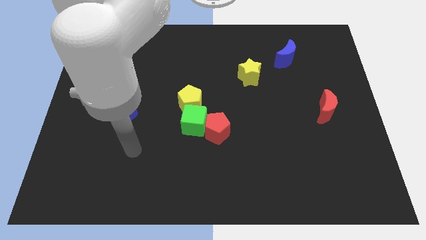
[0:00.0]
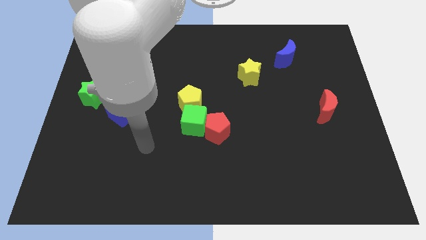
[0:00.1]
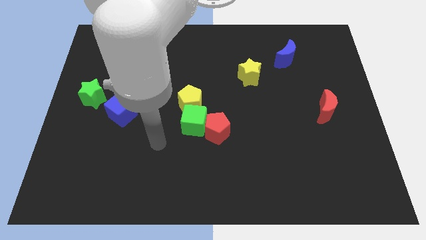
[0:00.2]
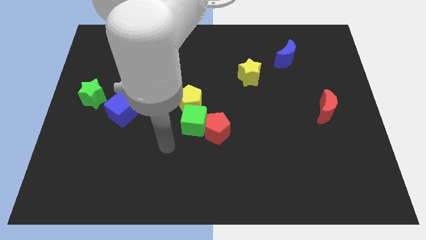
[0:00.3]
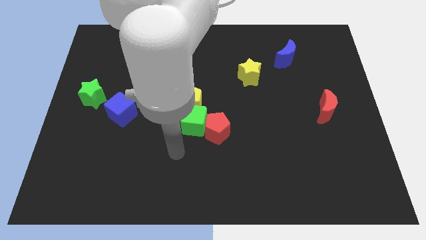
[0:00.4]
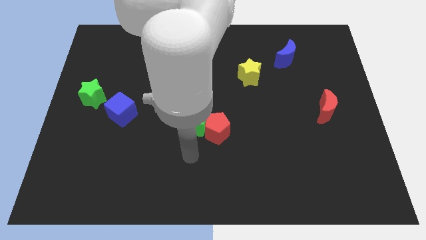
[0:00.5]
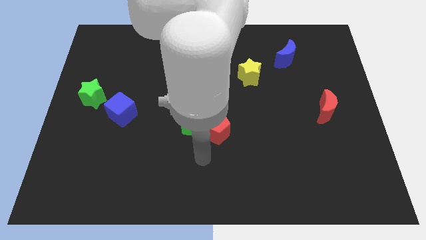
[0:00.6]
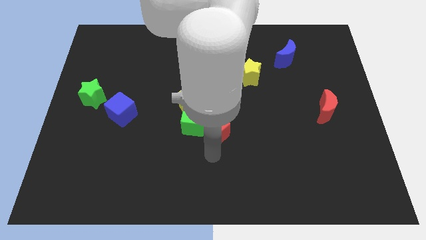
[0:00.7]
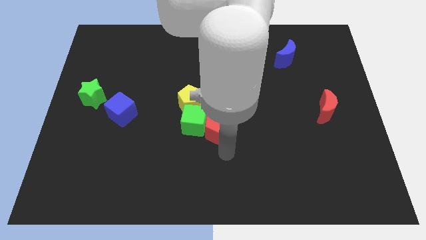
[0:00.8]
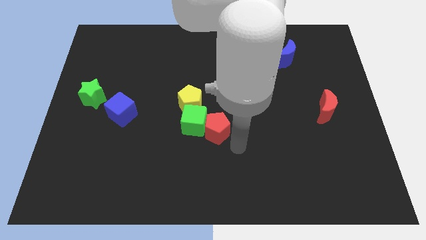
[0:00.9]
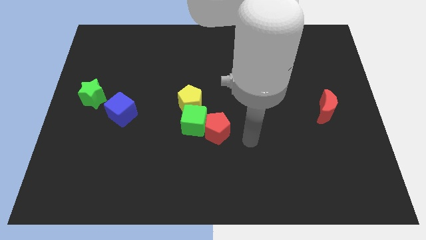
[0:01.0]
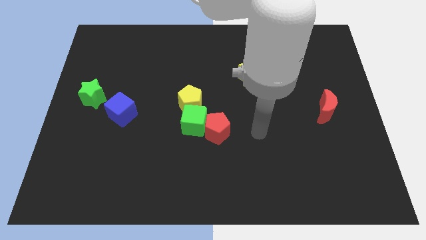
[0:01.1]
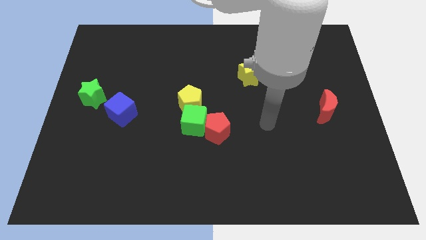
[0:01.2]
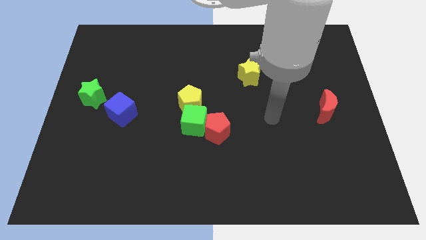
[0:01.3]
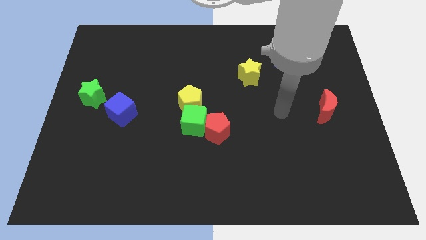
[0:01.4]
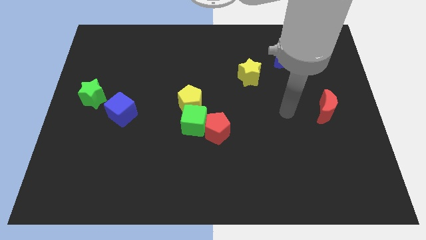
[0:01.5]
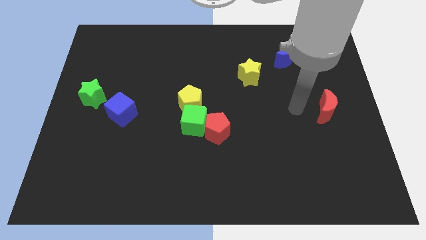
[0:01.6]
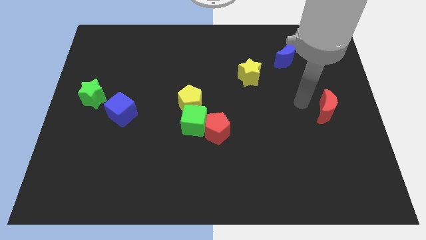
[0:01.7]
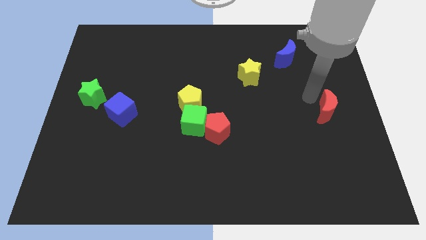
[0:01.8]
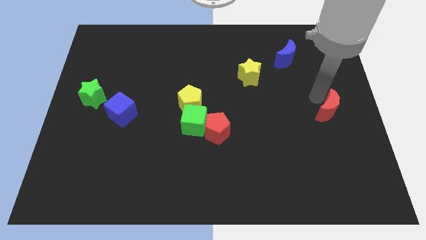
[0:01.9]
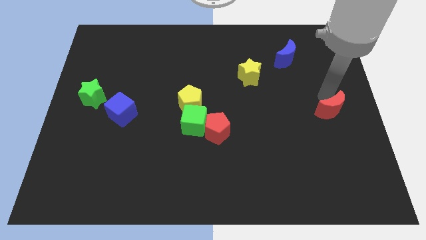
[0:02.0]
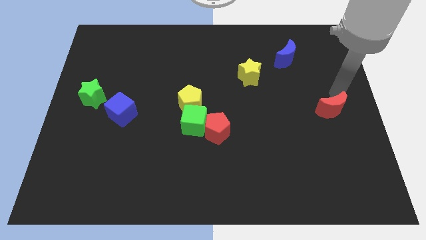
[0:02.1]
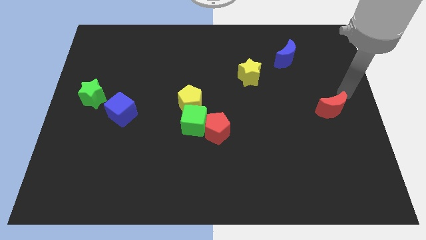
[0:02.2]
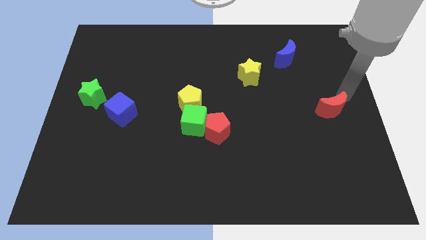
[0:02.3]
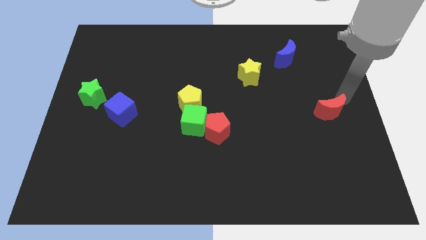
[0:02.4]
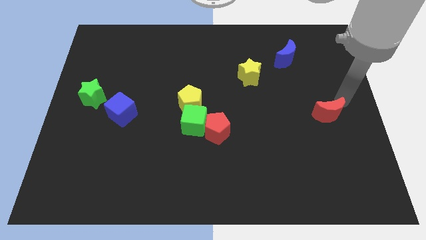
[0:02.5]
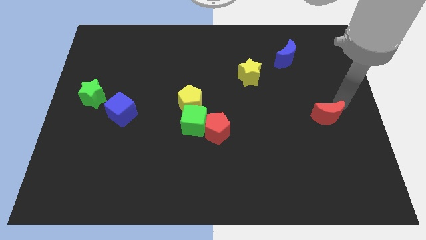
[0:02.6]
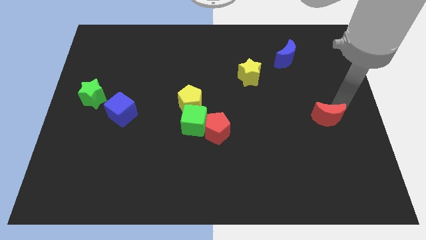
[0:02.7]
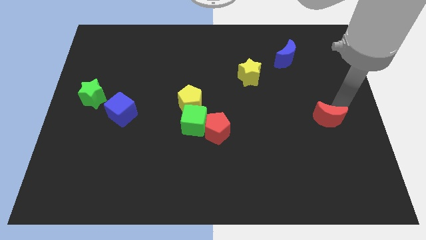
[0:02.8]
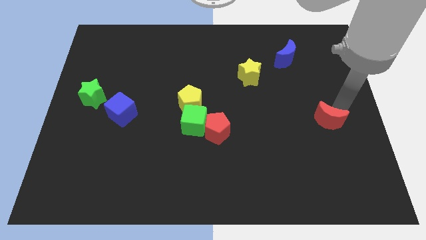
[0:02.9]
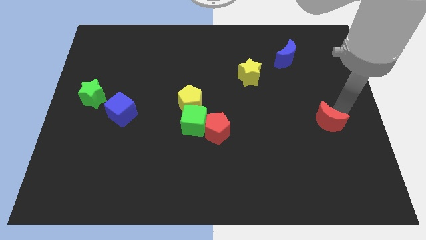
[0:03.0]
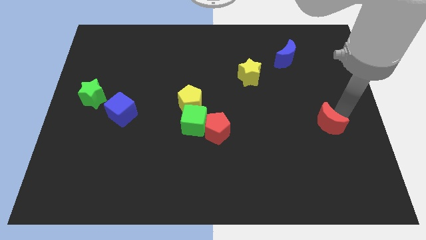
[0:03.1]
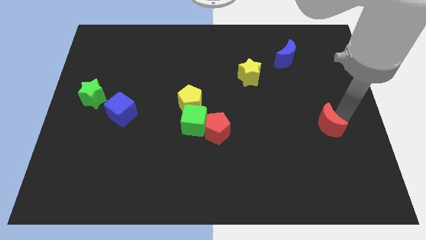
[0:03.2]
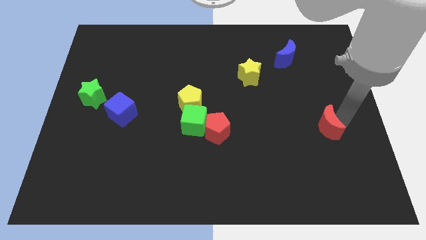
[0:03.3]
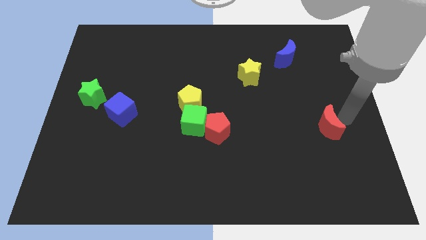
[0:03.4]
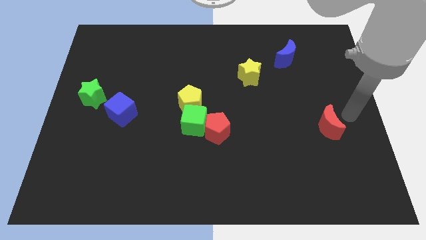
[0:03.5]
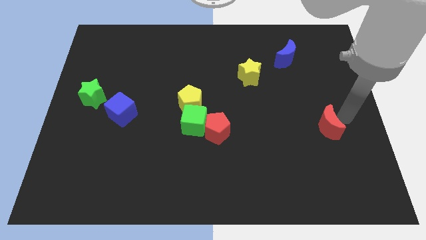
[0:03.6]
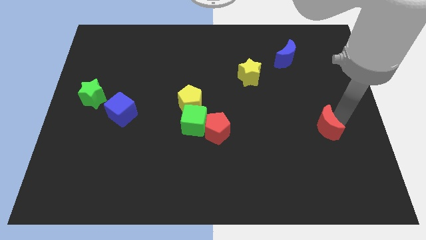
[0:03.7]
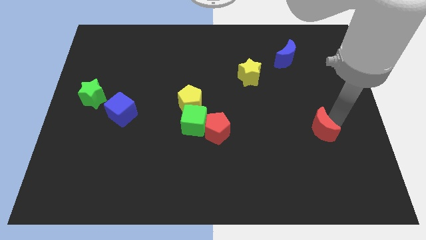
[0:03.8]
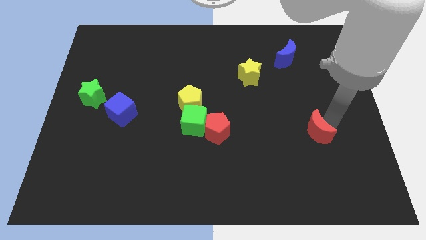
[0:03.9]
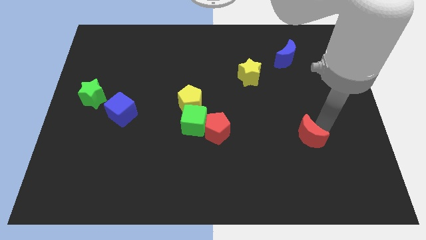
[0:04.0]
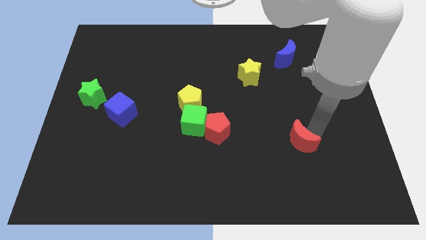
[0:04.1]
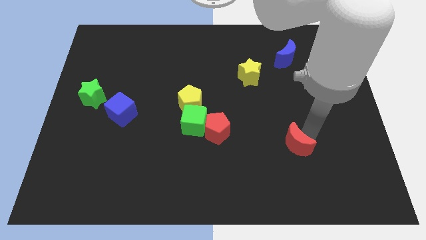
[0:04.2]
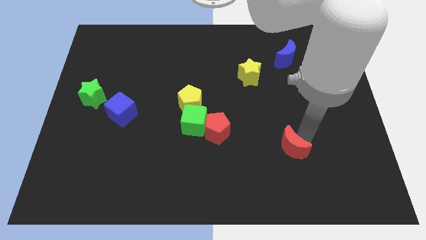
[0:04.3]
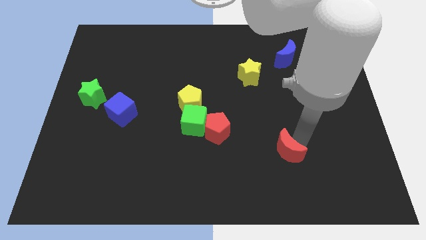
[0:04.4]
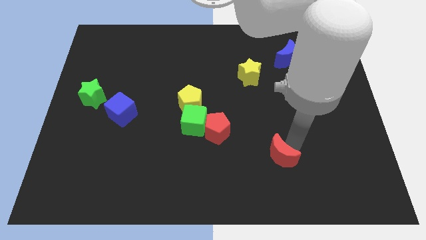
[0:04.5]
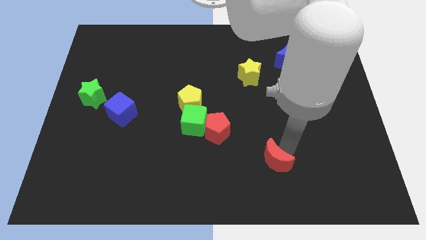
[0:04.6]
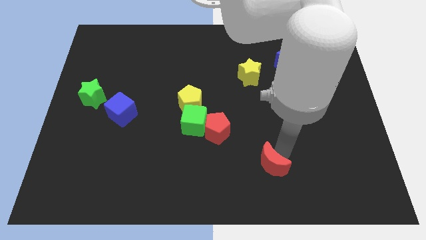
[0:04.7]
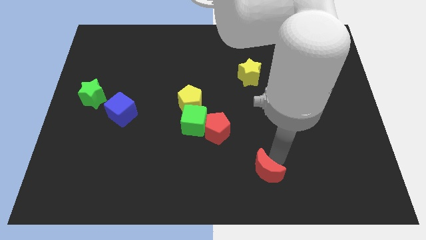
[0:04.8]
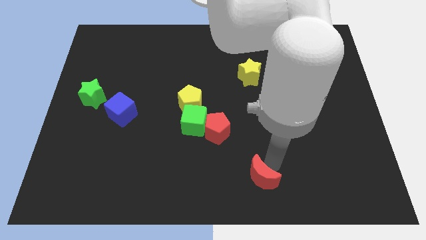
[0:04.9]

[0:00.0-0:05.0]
put the red moon to the bottom

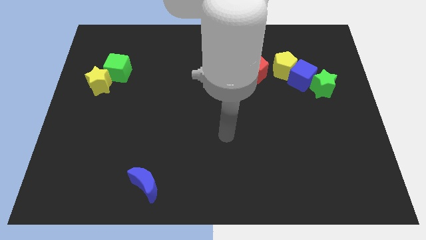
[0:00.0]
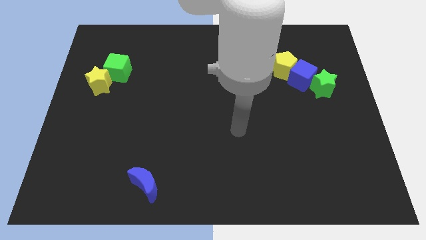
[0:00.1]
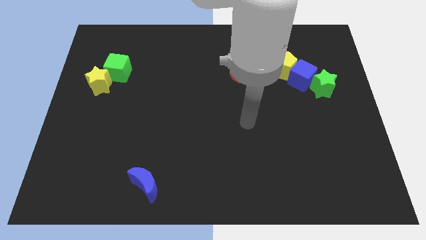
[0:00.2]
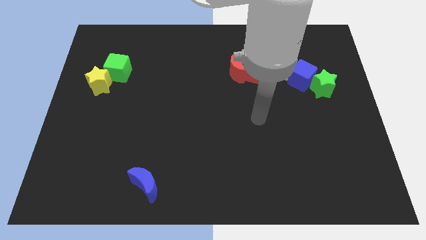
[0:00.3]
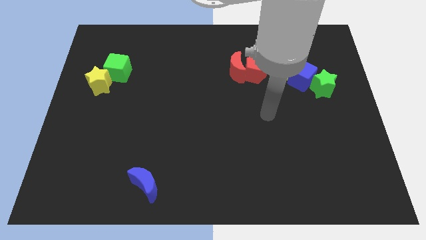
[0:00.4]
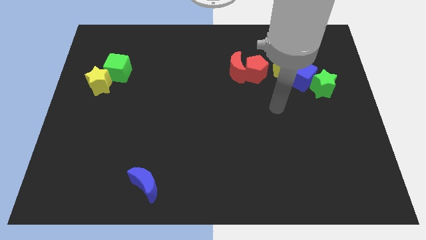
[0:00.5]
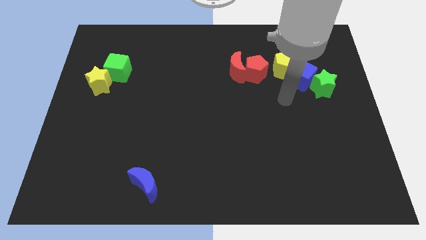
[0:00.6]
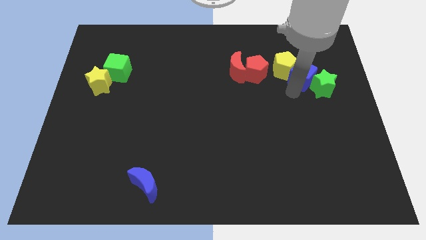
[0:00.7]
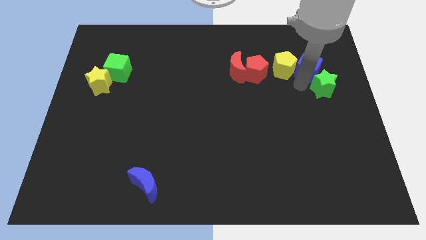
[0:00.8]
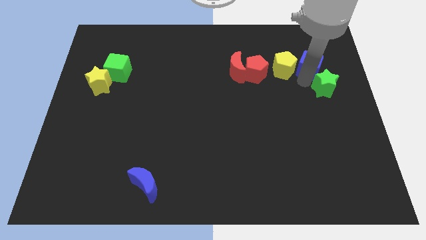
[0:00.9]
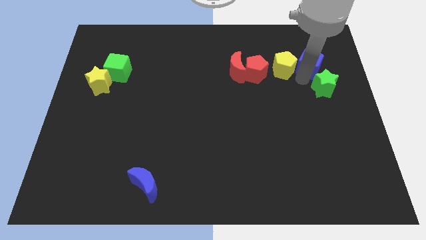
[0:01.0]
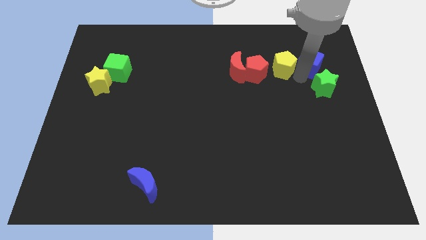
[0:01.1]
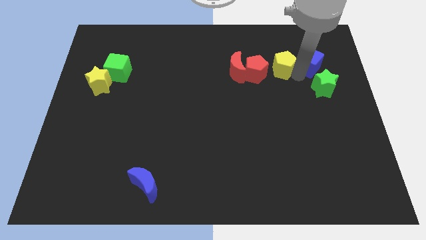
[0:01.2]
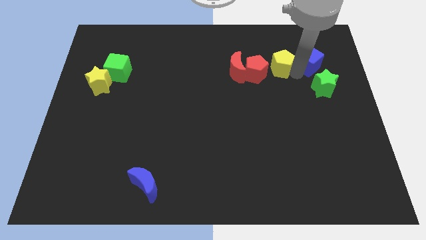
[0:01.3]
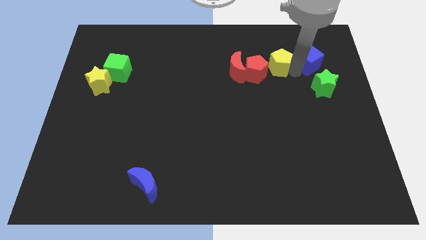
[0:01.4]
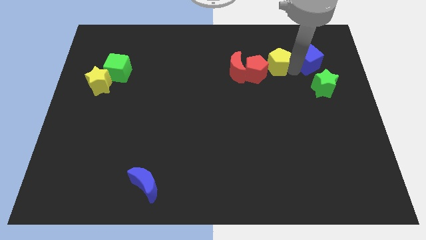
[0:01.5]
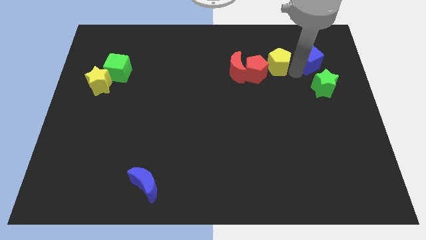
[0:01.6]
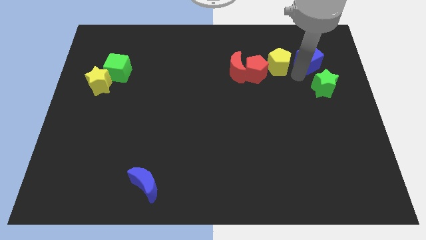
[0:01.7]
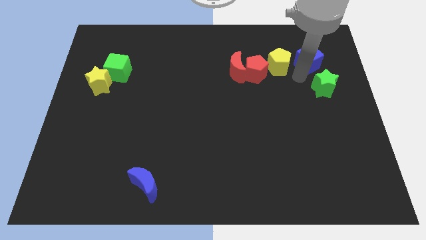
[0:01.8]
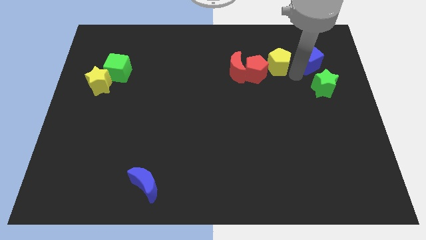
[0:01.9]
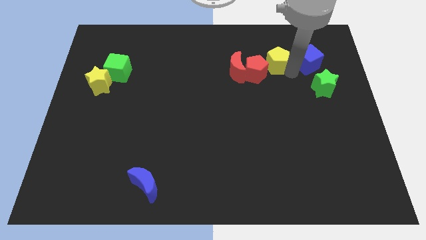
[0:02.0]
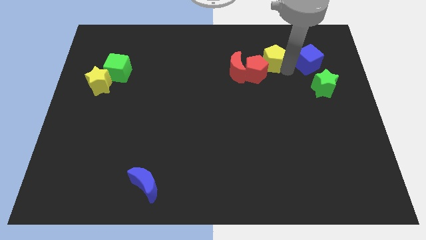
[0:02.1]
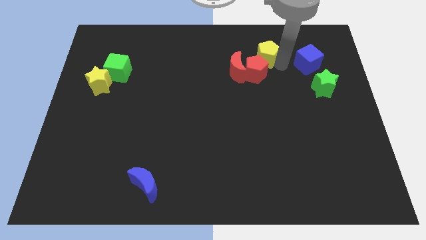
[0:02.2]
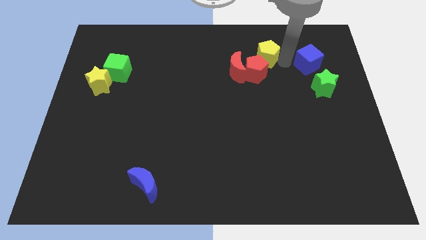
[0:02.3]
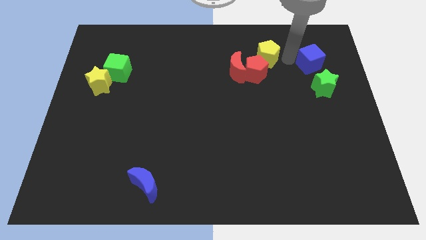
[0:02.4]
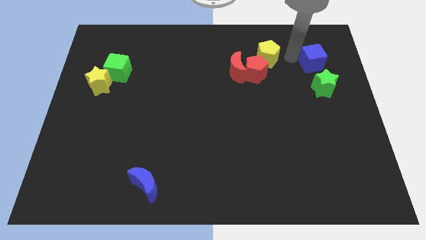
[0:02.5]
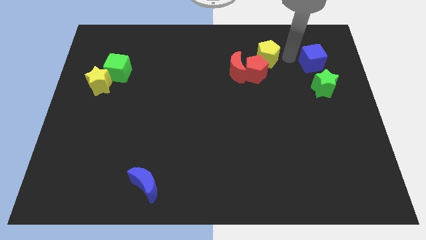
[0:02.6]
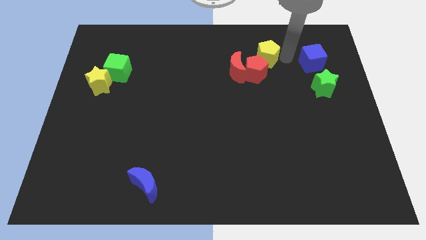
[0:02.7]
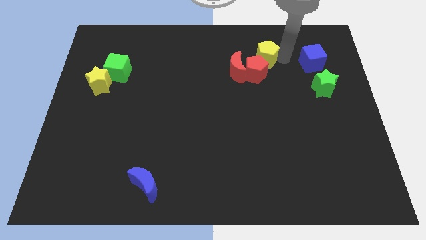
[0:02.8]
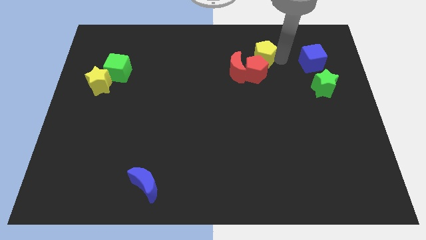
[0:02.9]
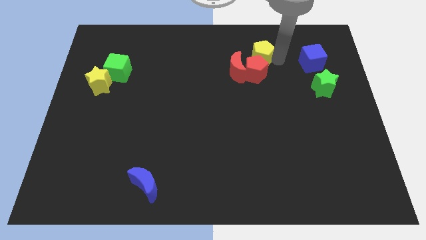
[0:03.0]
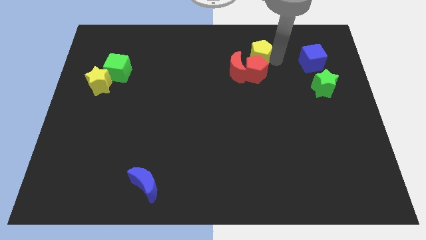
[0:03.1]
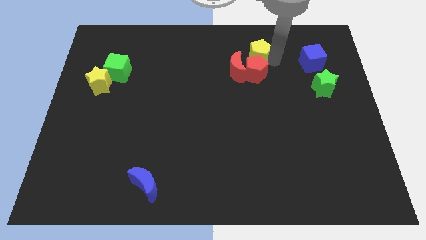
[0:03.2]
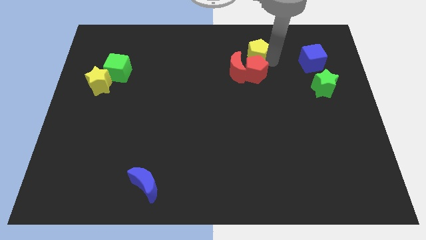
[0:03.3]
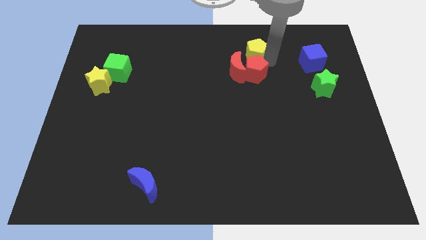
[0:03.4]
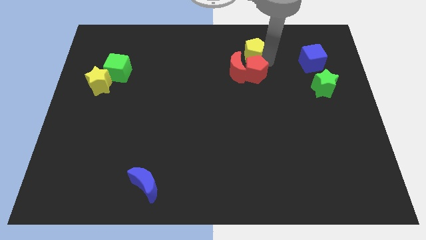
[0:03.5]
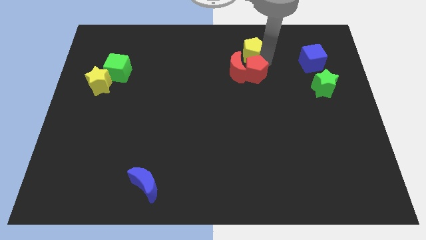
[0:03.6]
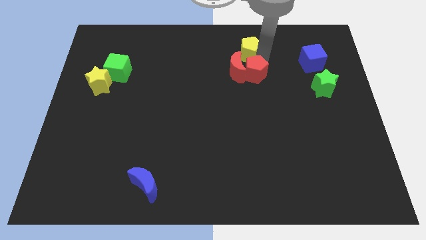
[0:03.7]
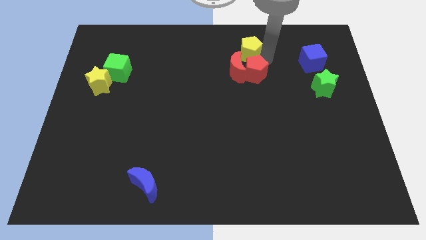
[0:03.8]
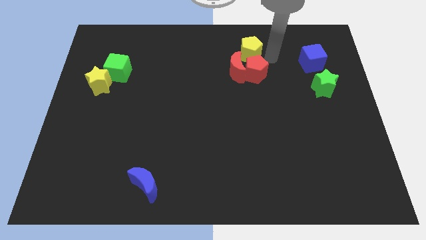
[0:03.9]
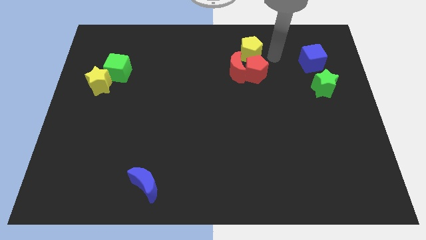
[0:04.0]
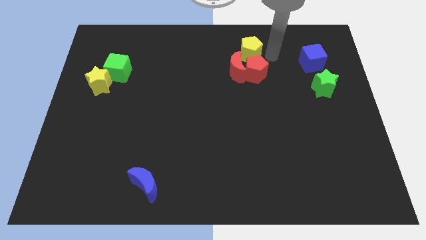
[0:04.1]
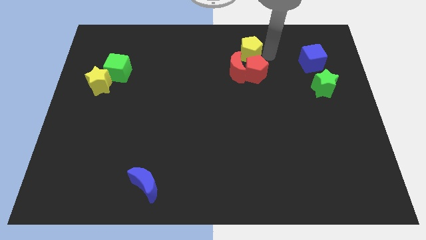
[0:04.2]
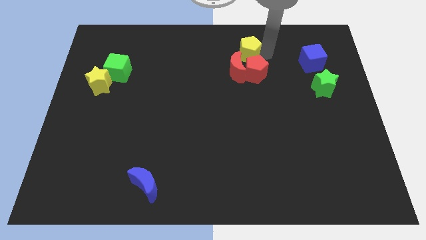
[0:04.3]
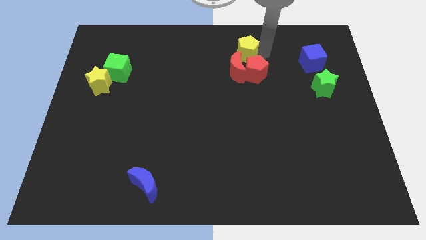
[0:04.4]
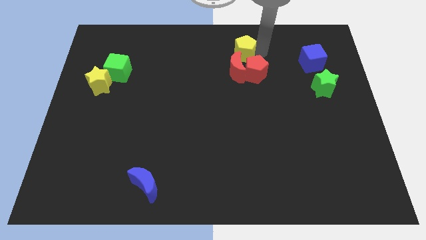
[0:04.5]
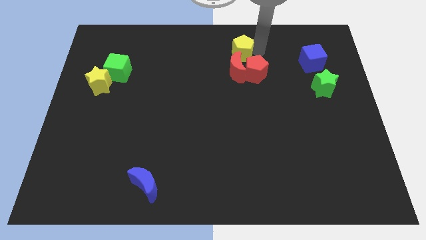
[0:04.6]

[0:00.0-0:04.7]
move the yellow pentagon to the towards your base
